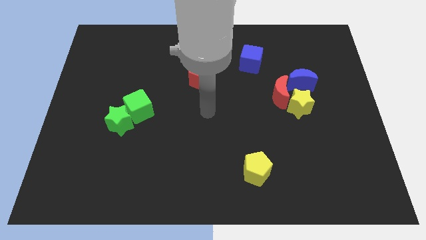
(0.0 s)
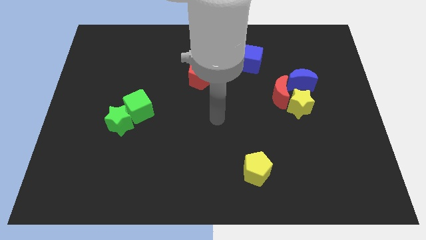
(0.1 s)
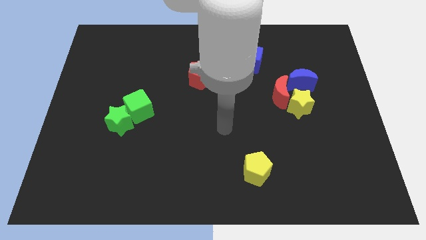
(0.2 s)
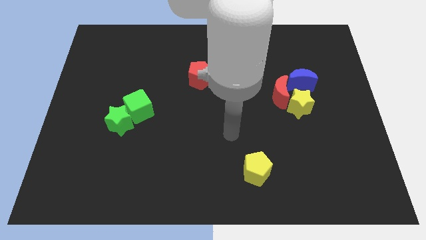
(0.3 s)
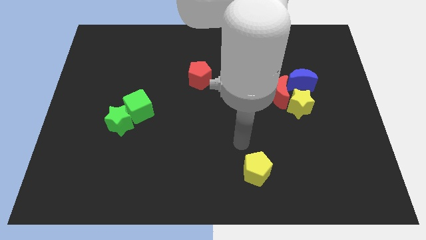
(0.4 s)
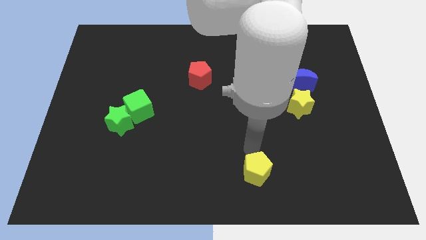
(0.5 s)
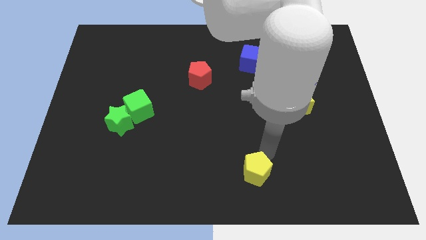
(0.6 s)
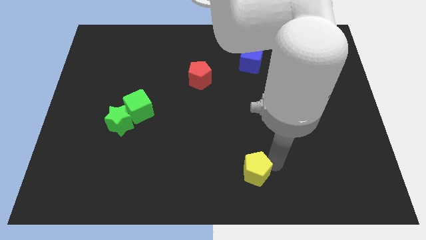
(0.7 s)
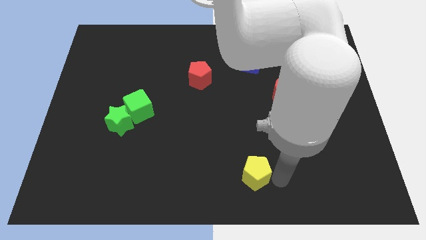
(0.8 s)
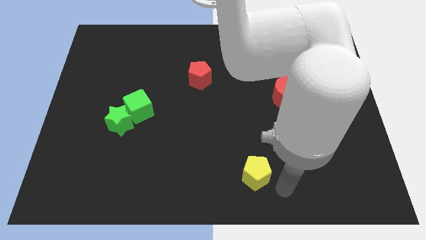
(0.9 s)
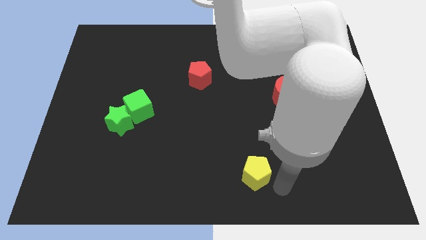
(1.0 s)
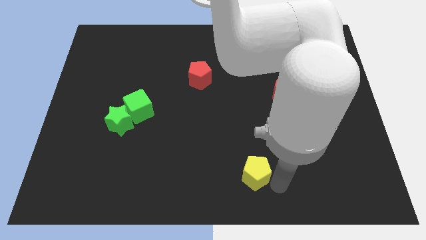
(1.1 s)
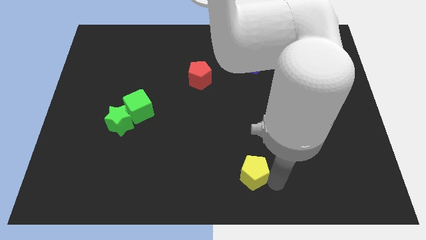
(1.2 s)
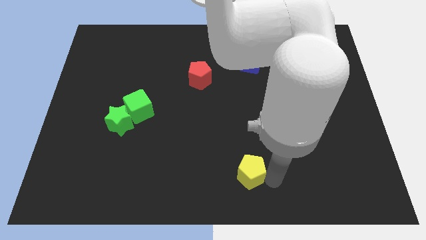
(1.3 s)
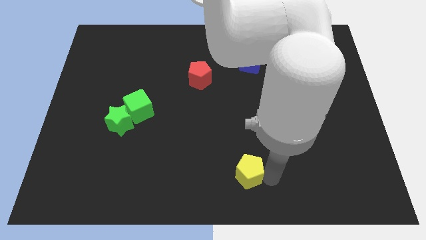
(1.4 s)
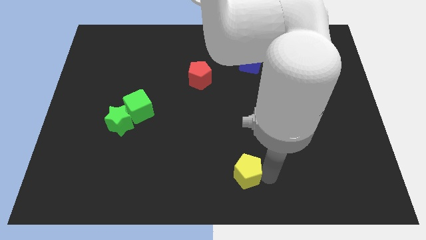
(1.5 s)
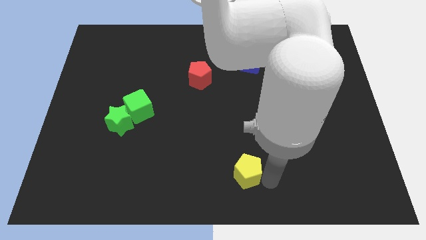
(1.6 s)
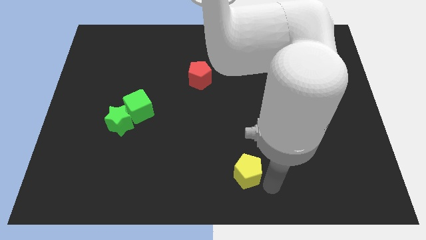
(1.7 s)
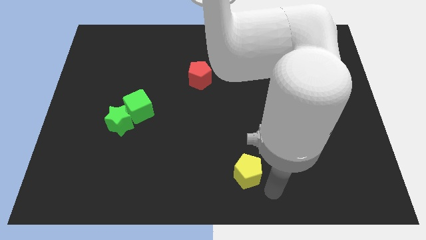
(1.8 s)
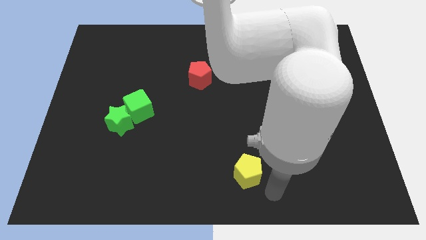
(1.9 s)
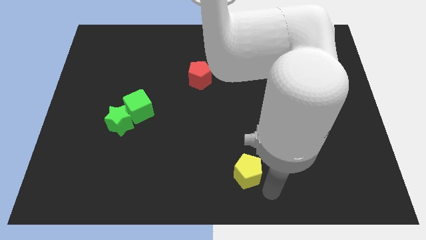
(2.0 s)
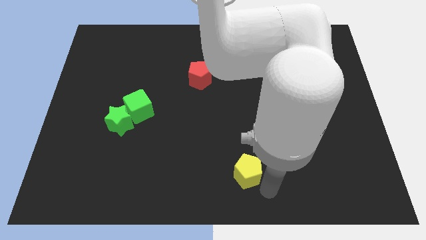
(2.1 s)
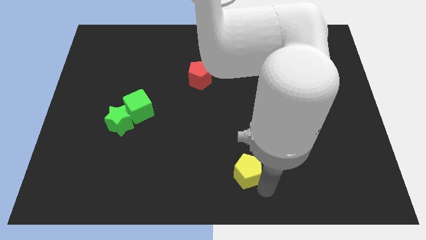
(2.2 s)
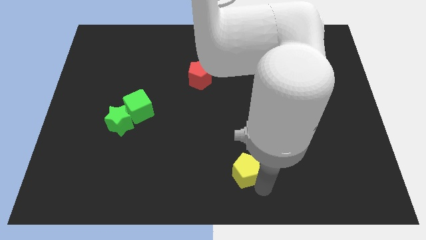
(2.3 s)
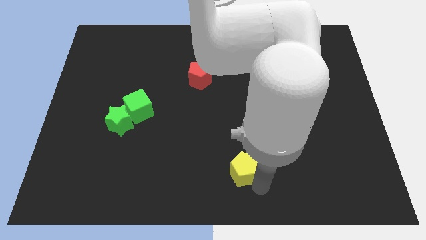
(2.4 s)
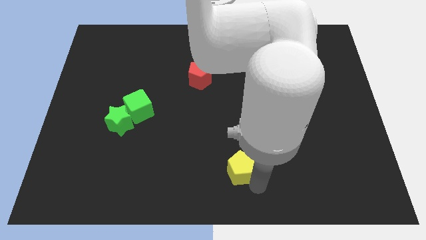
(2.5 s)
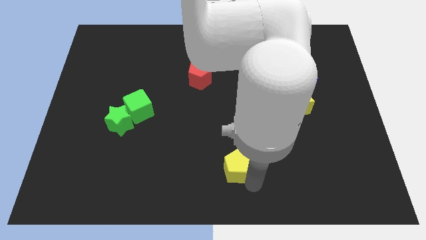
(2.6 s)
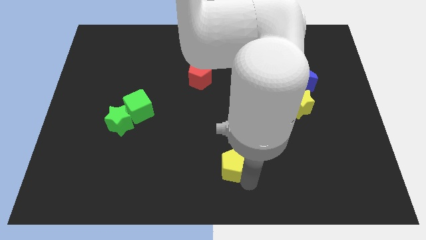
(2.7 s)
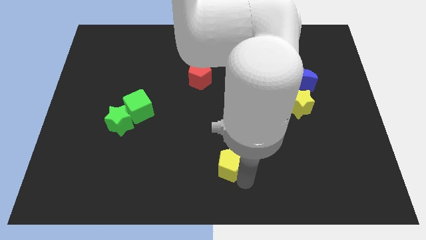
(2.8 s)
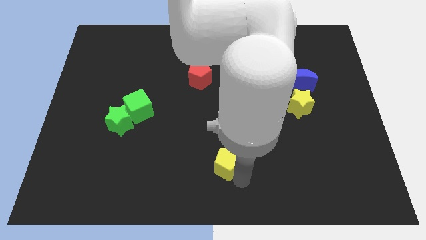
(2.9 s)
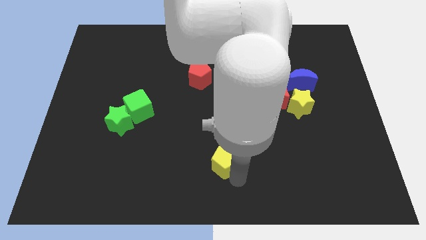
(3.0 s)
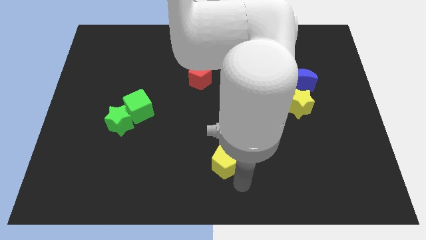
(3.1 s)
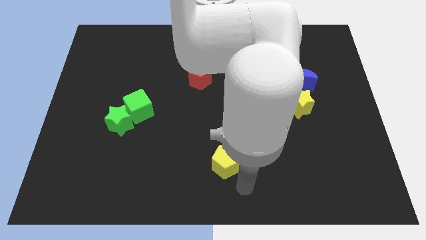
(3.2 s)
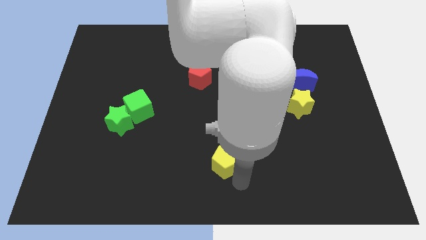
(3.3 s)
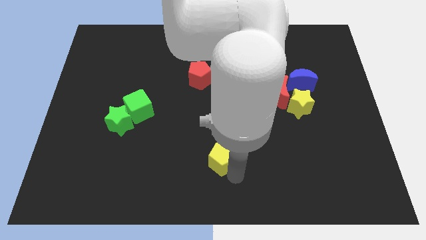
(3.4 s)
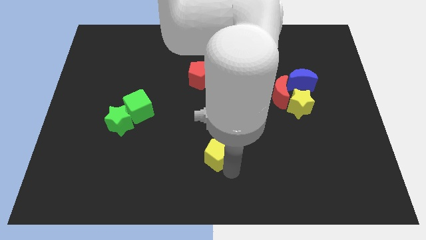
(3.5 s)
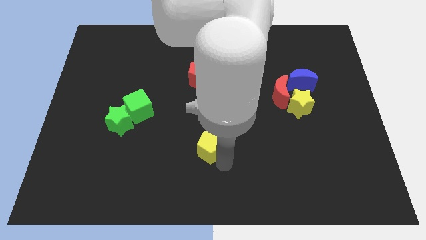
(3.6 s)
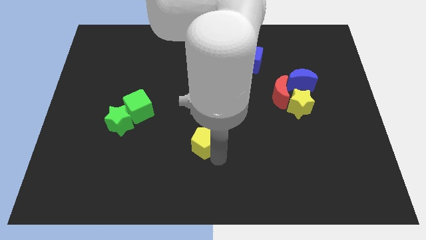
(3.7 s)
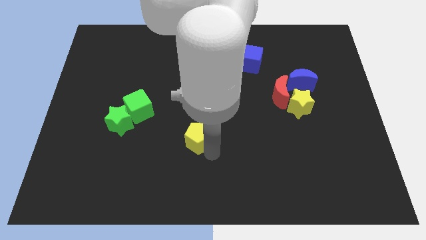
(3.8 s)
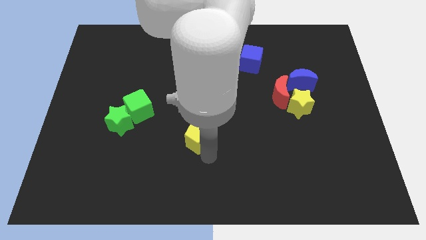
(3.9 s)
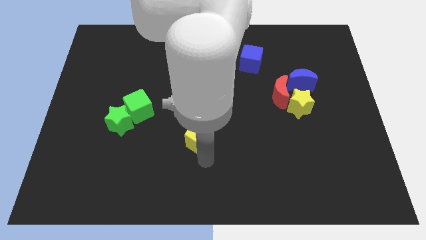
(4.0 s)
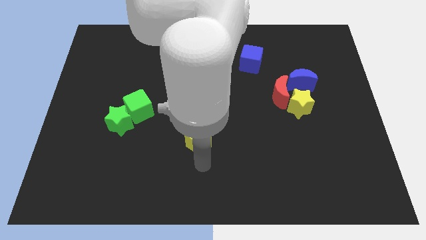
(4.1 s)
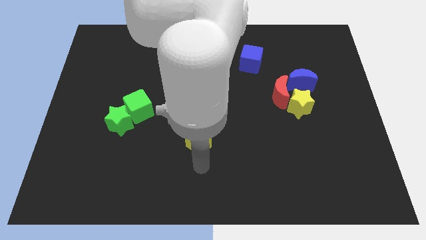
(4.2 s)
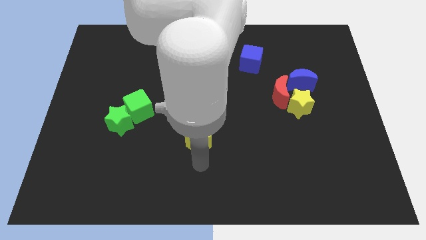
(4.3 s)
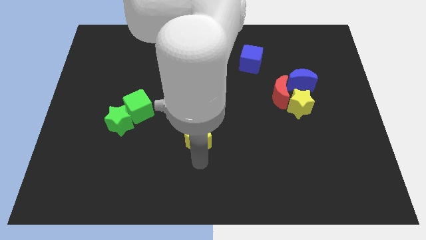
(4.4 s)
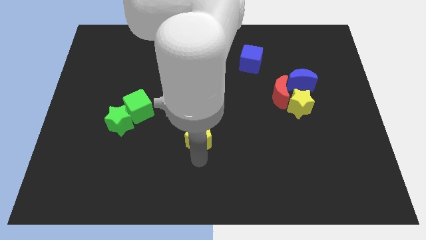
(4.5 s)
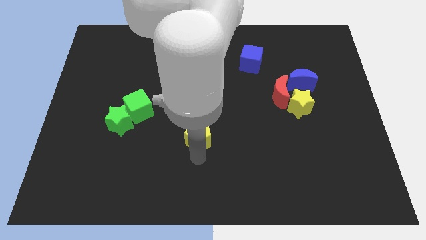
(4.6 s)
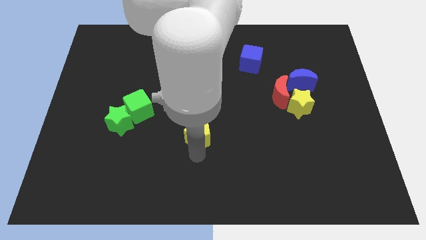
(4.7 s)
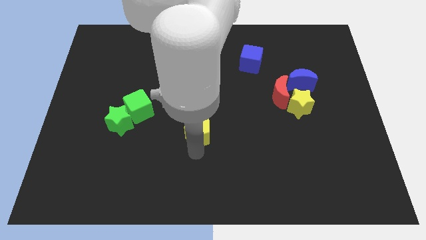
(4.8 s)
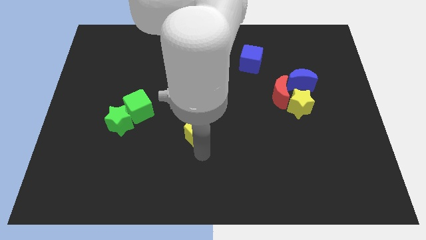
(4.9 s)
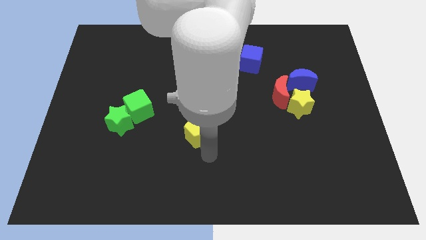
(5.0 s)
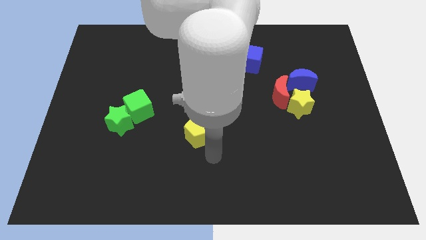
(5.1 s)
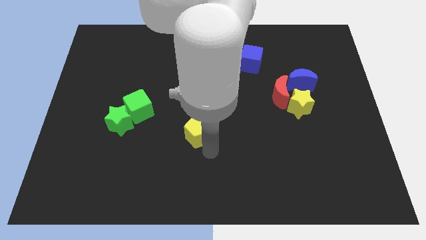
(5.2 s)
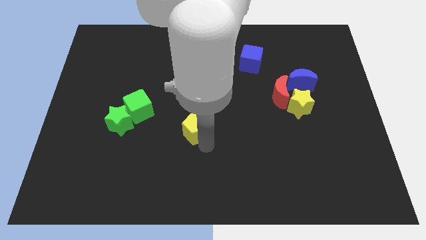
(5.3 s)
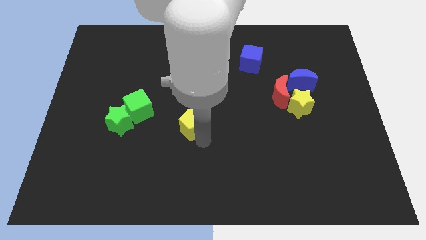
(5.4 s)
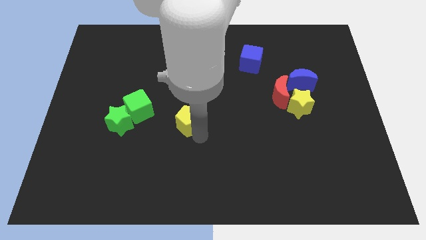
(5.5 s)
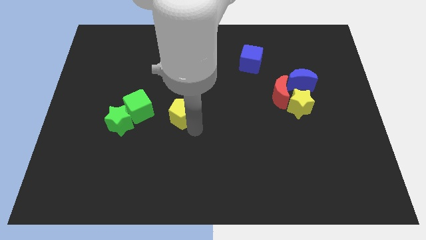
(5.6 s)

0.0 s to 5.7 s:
push the yellow pentagon up and left diagonally

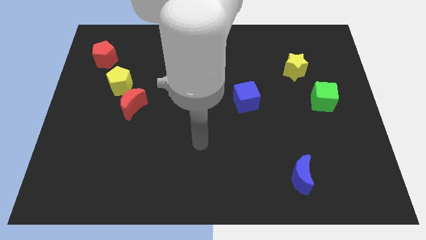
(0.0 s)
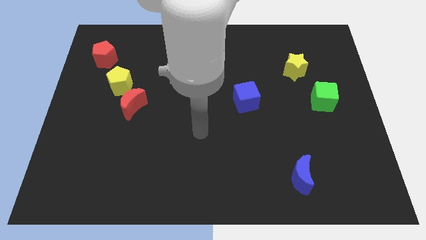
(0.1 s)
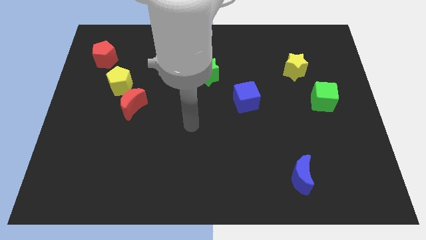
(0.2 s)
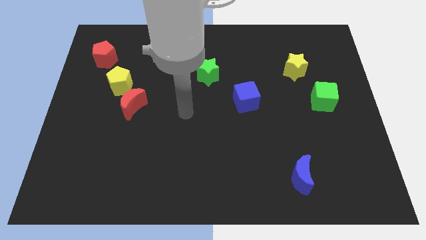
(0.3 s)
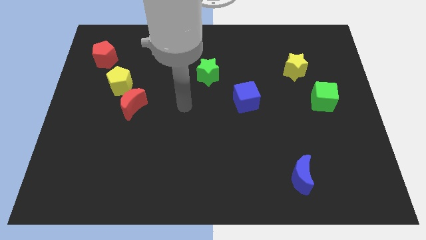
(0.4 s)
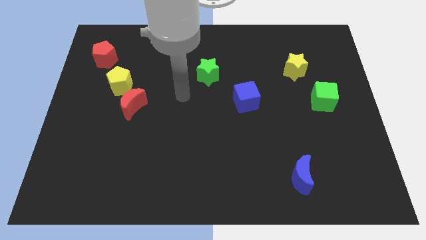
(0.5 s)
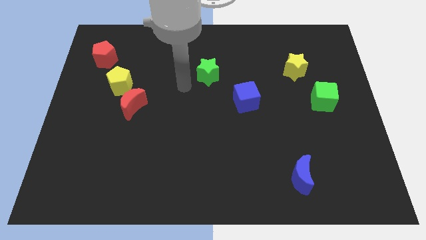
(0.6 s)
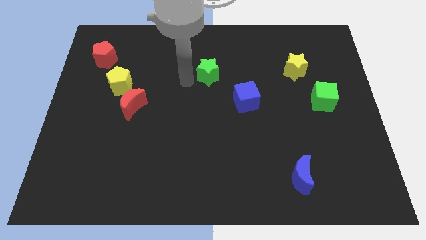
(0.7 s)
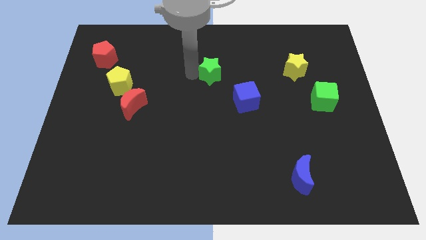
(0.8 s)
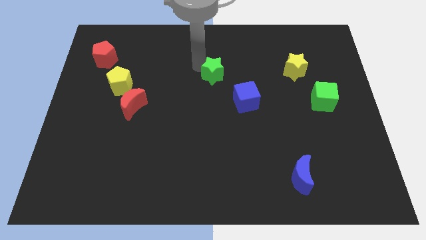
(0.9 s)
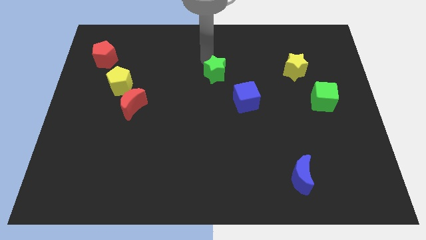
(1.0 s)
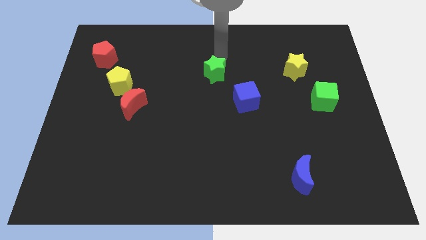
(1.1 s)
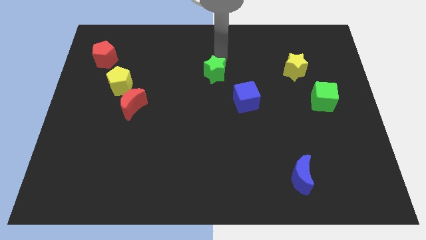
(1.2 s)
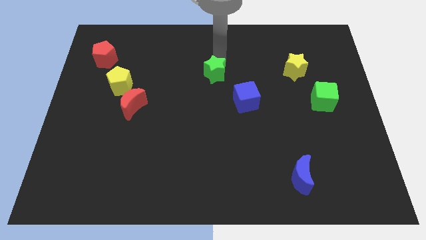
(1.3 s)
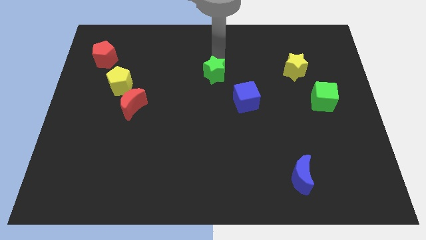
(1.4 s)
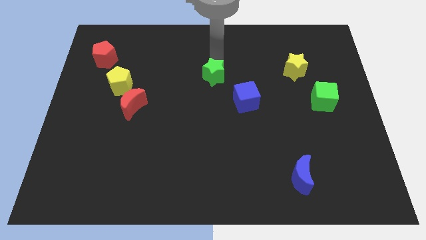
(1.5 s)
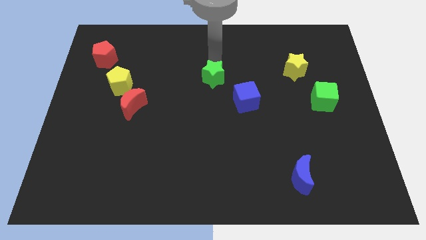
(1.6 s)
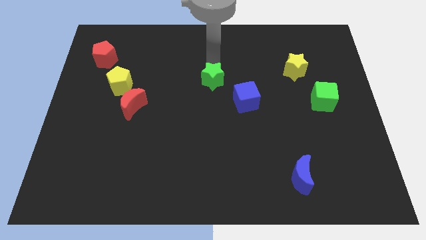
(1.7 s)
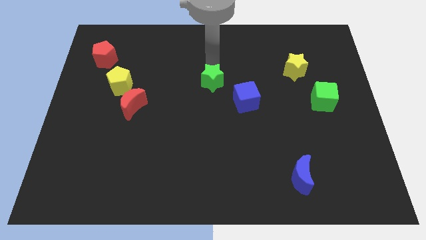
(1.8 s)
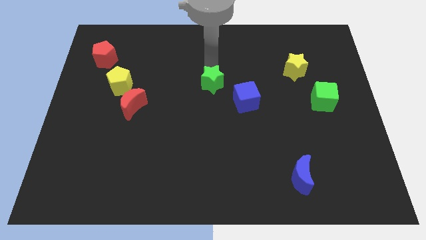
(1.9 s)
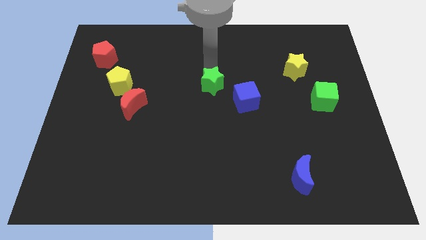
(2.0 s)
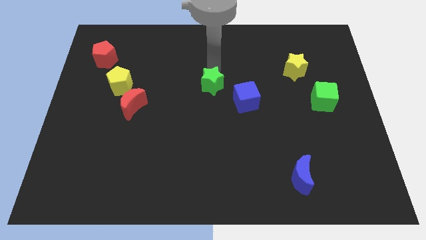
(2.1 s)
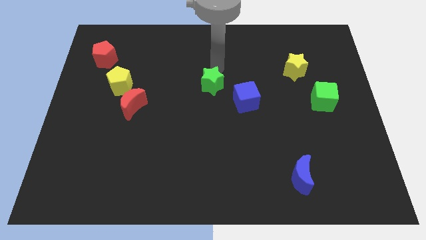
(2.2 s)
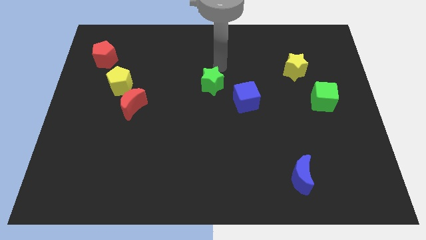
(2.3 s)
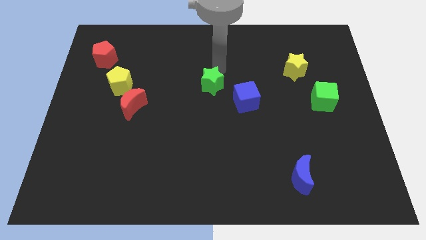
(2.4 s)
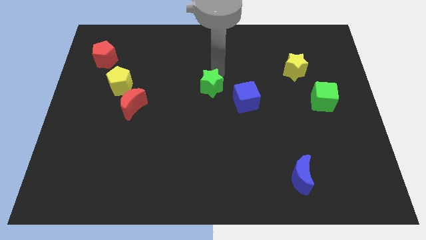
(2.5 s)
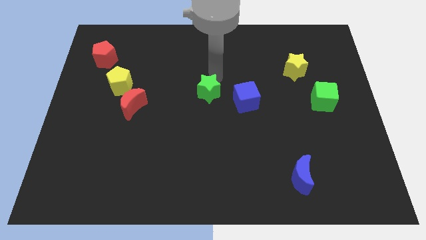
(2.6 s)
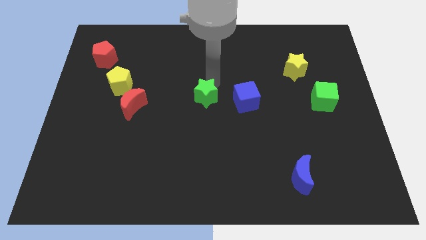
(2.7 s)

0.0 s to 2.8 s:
slightly push the green star down
